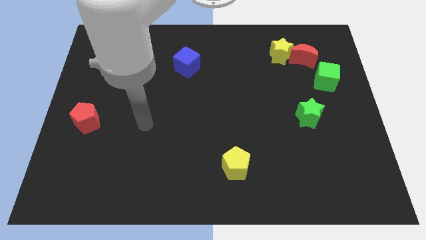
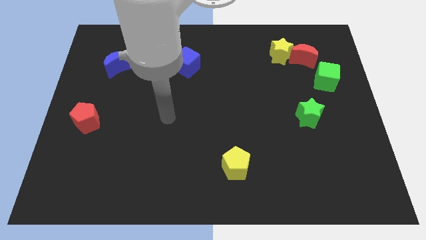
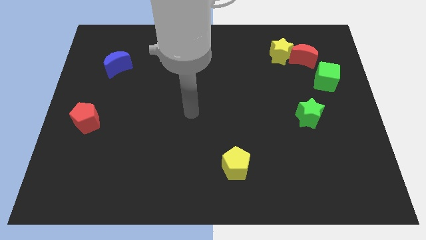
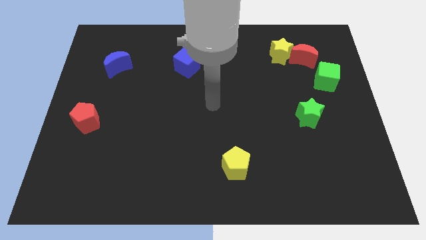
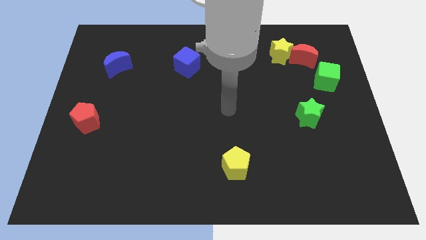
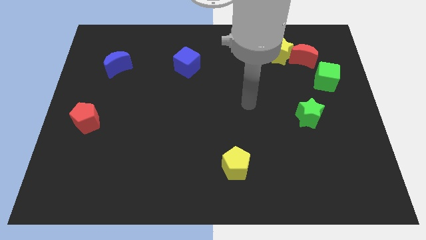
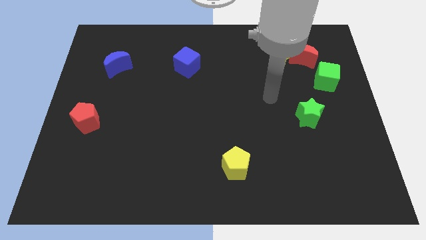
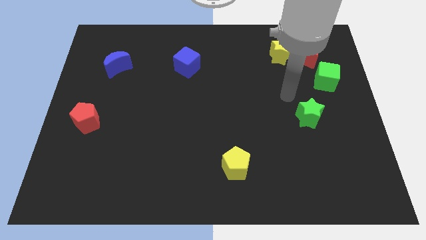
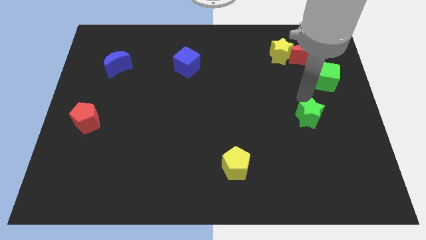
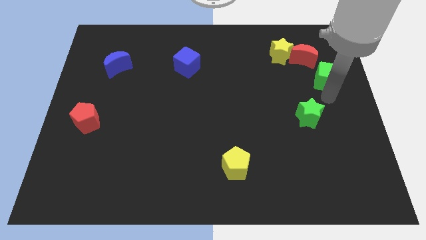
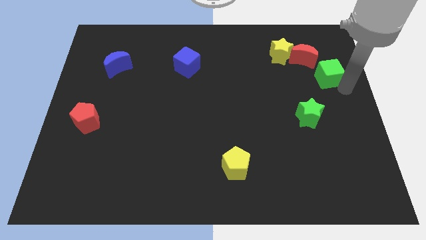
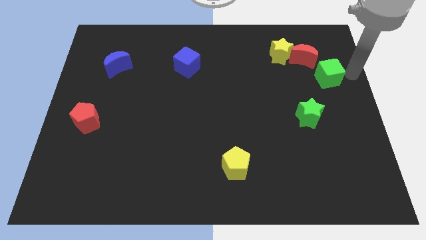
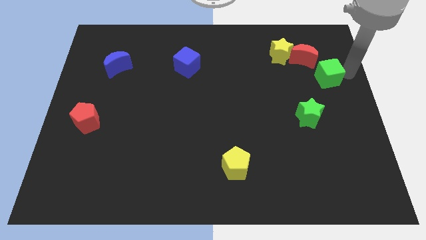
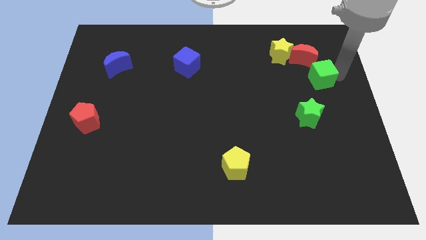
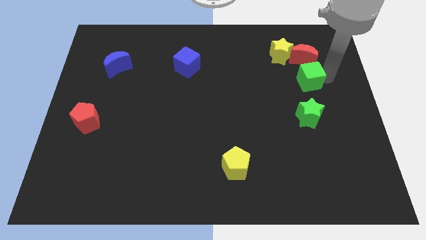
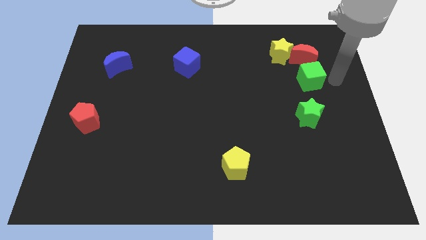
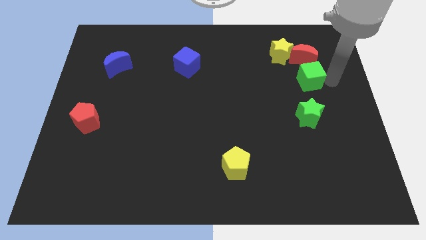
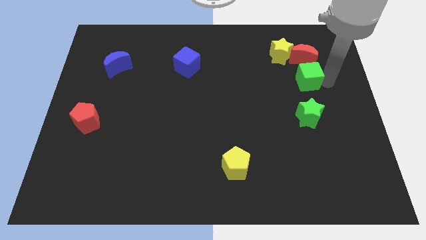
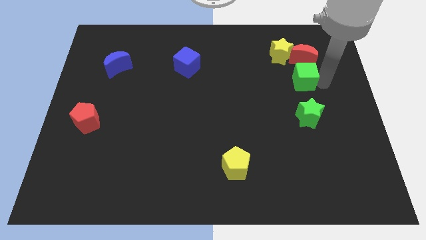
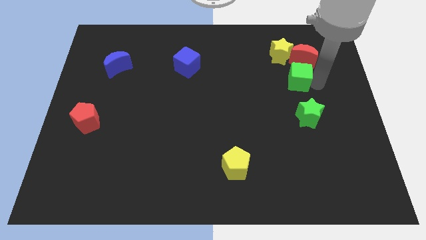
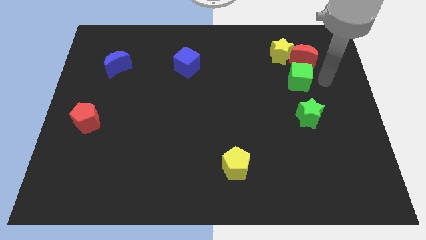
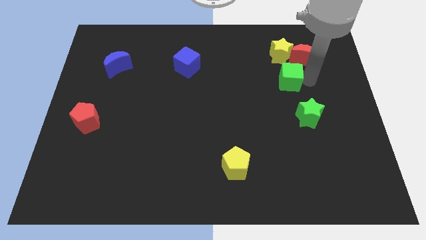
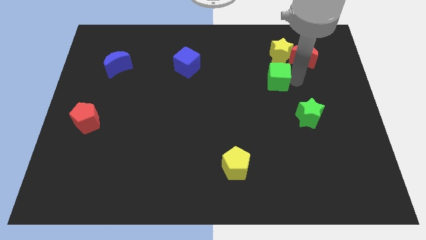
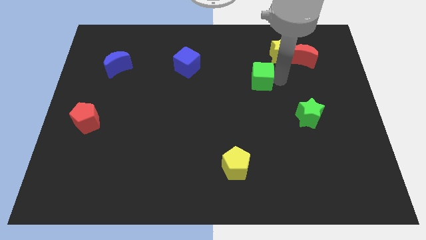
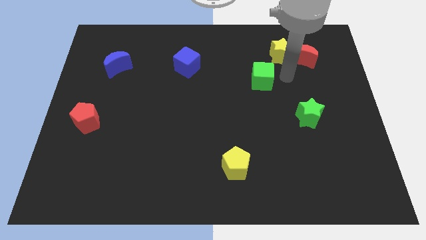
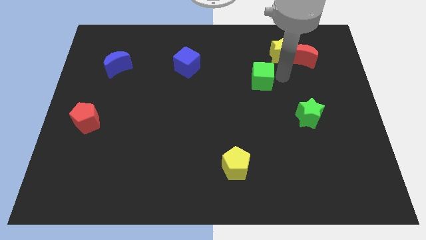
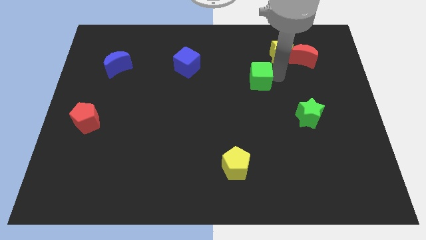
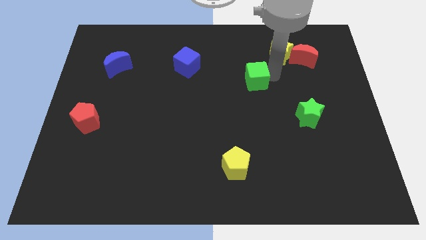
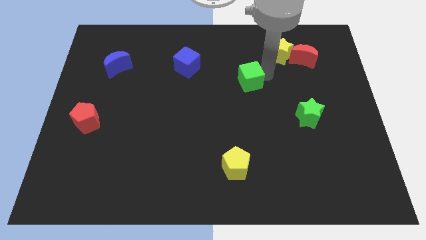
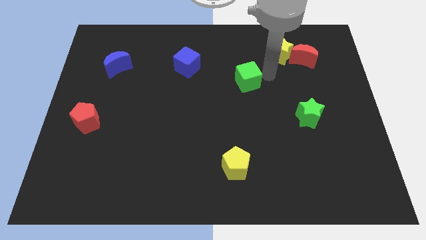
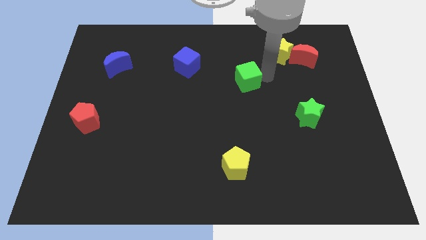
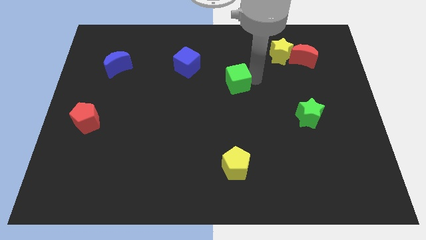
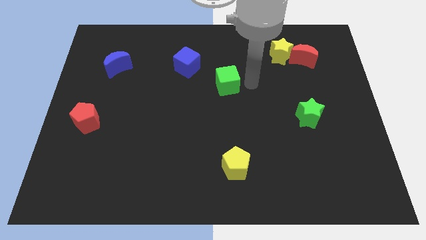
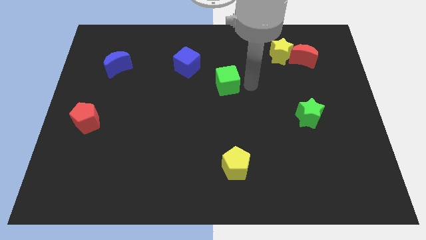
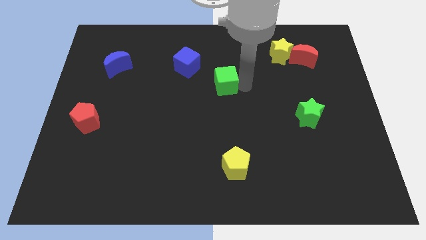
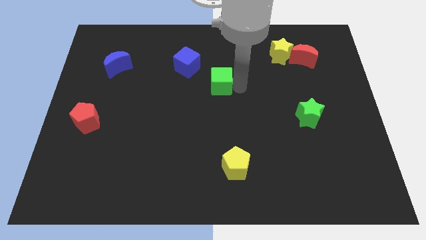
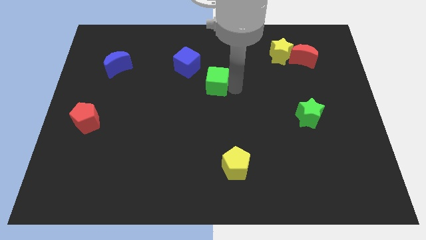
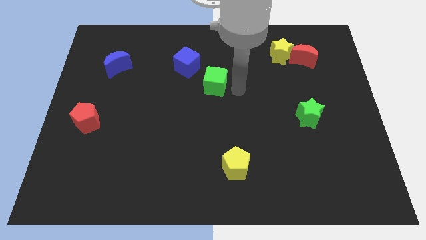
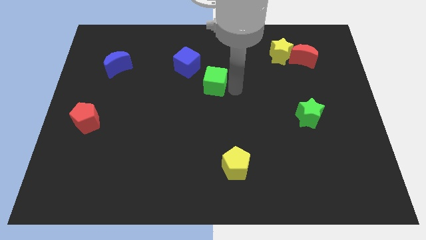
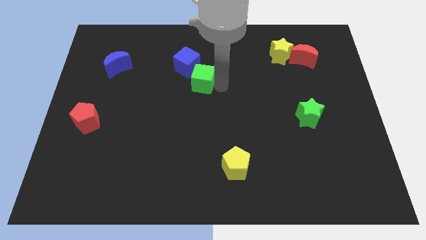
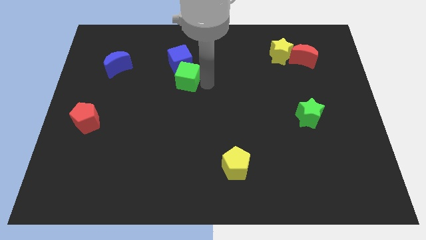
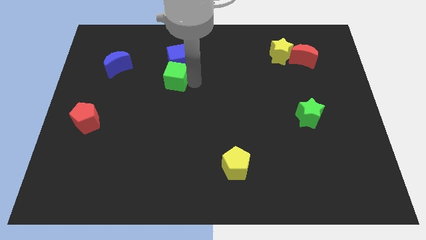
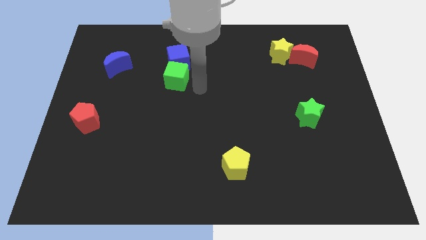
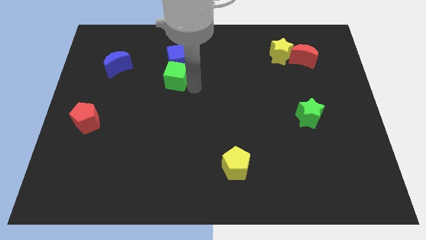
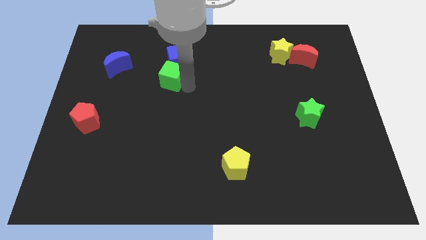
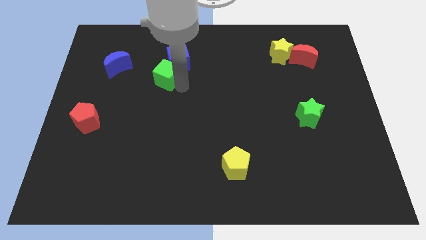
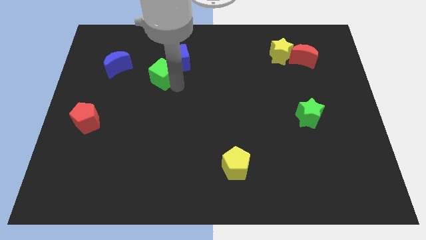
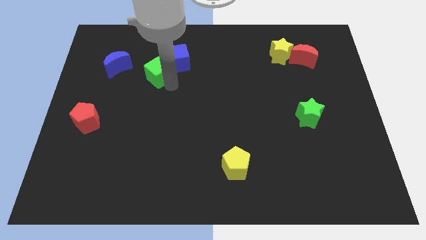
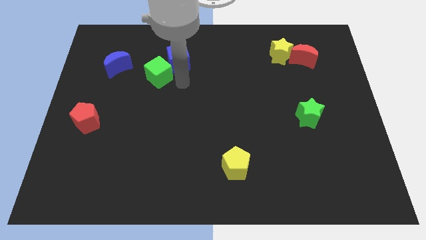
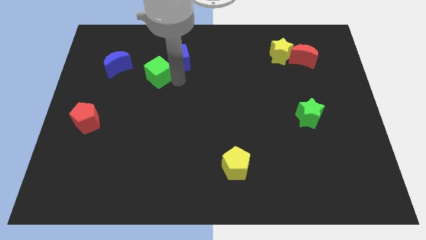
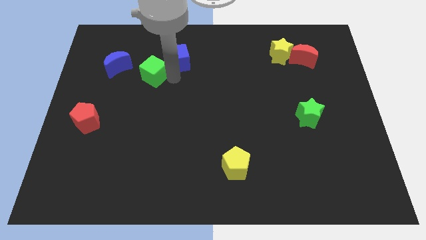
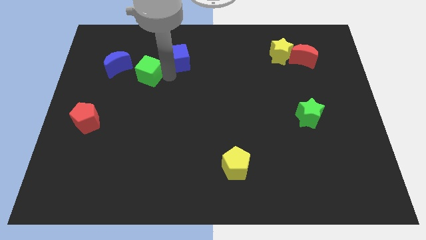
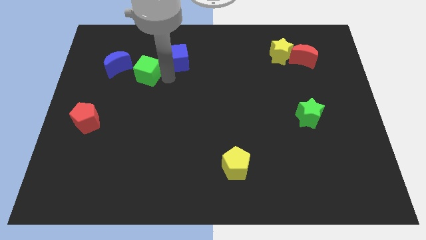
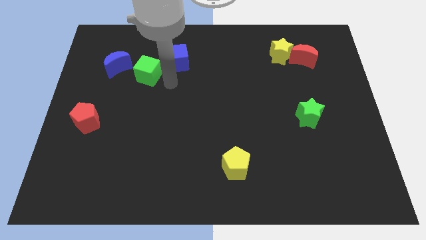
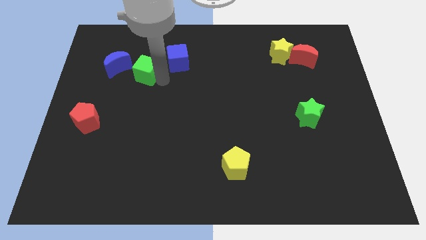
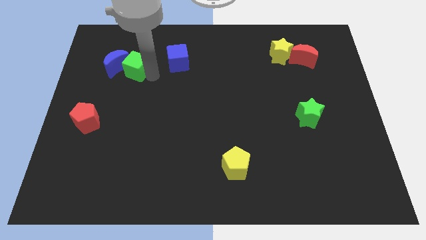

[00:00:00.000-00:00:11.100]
put the green cube towards the blue moon

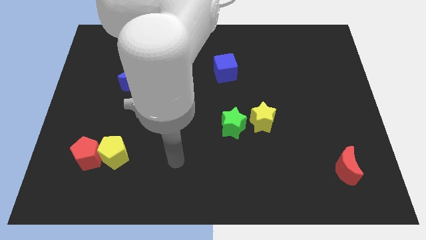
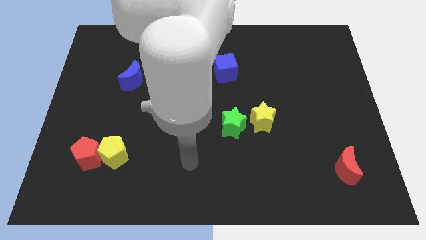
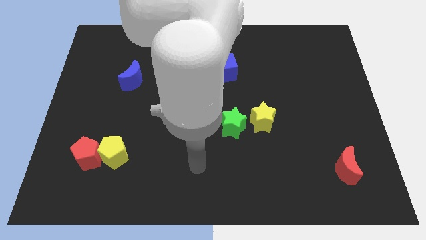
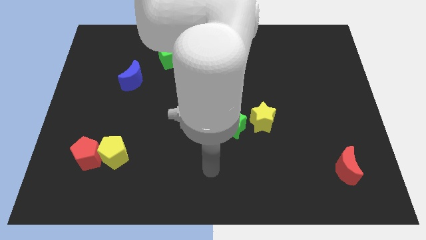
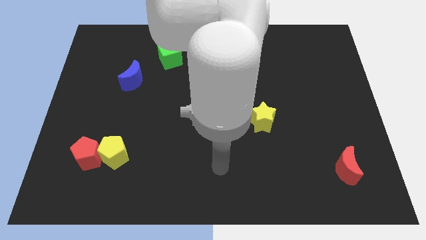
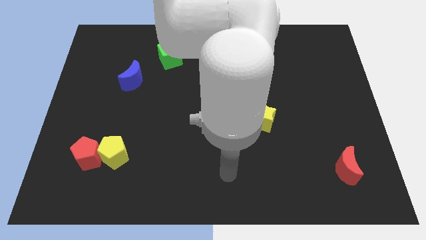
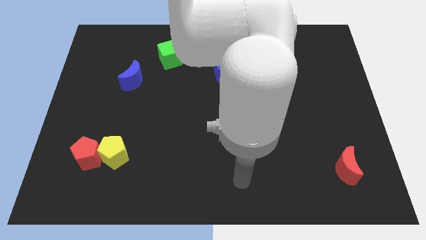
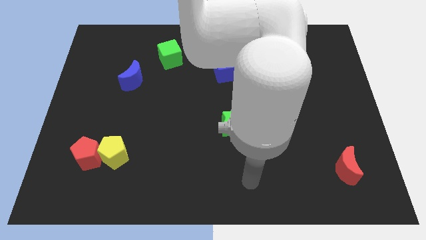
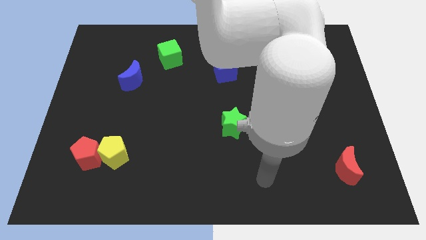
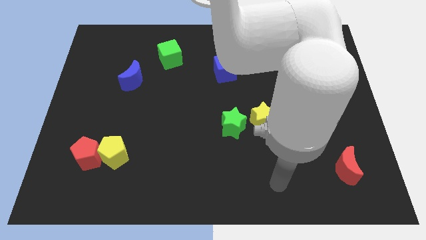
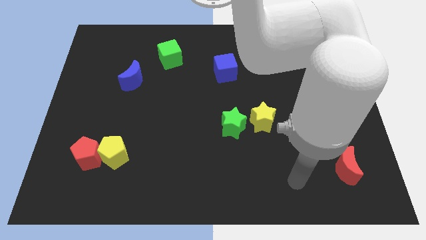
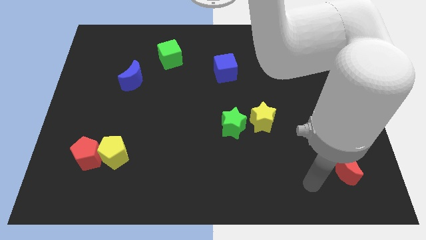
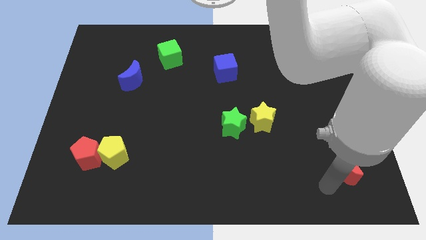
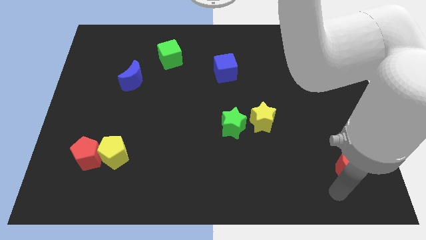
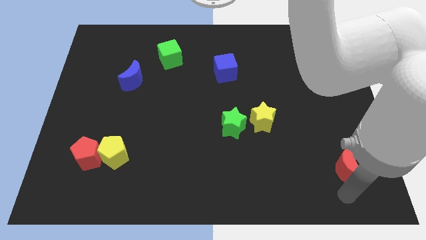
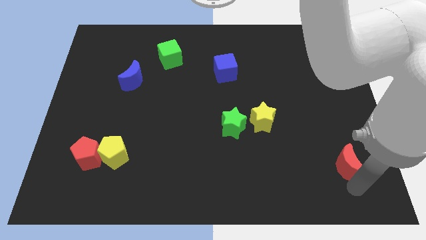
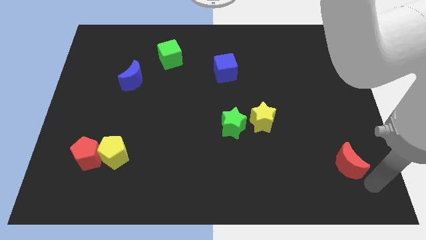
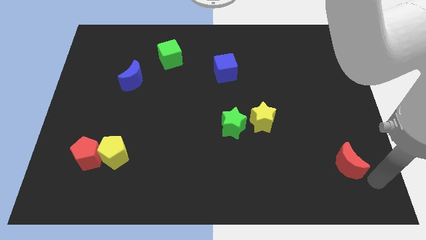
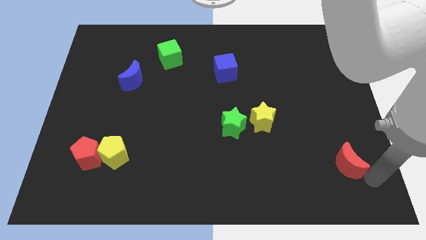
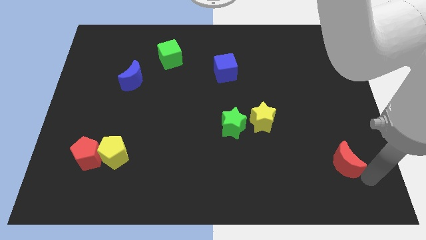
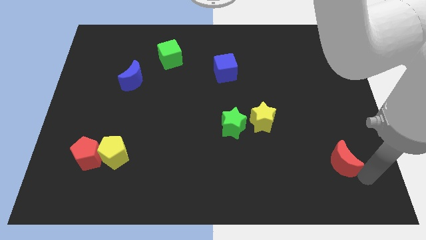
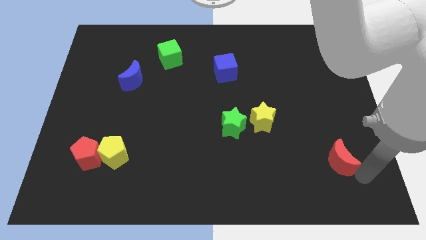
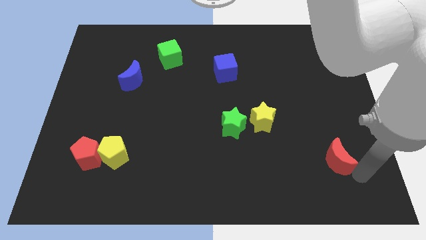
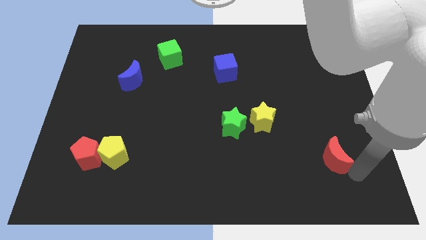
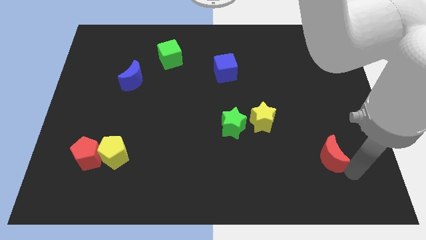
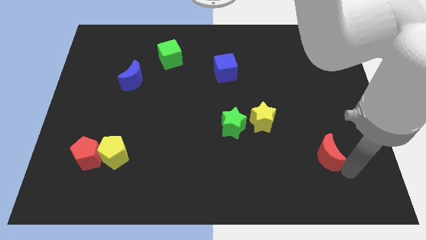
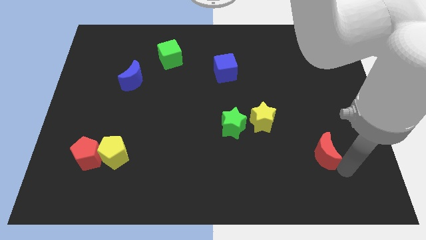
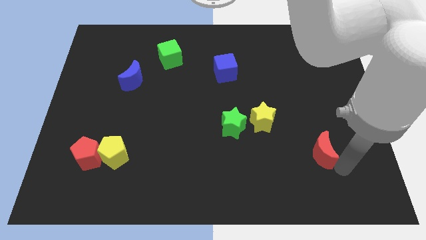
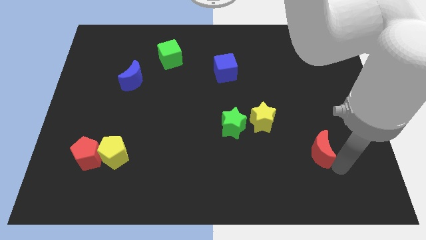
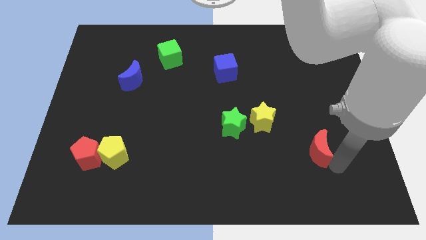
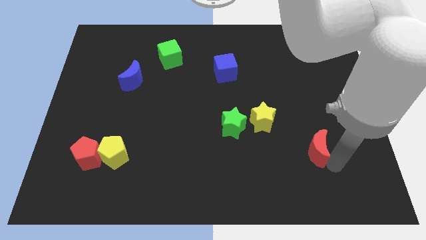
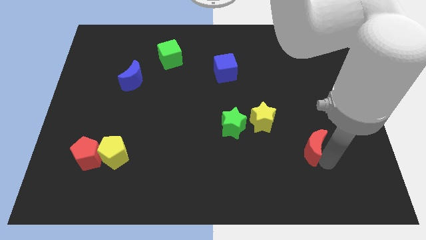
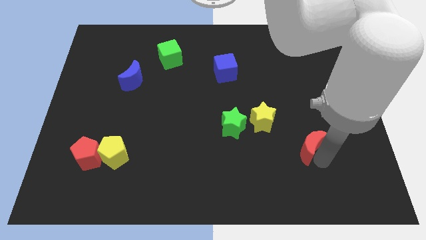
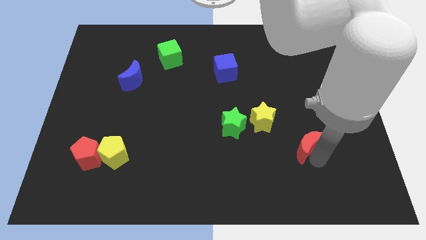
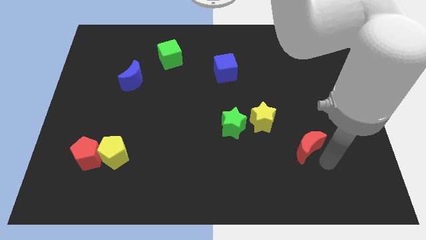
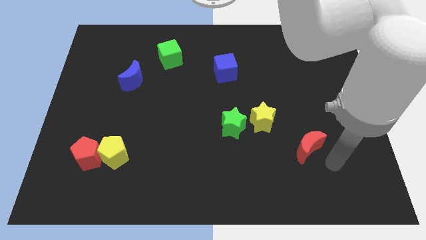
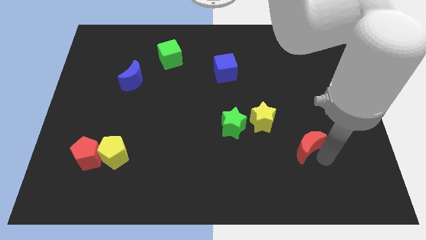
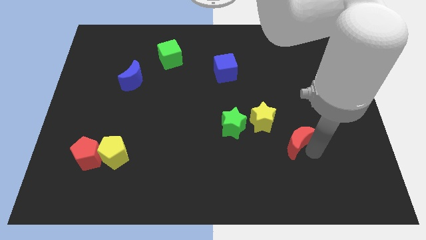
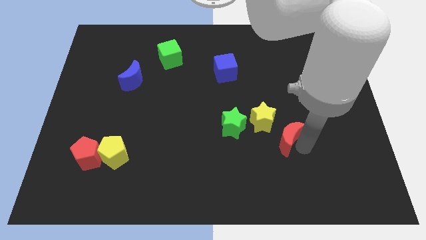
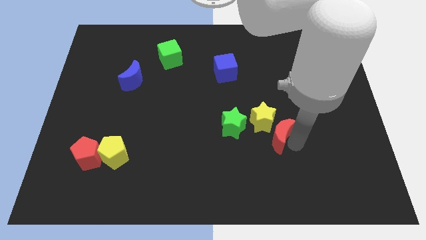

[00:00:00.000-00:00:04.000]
slide the red moon next to the yellow star
